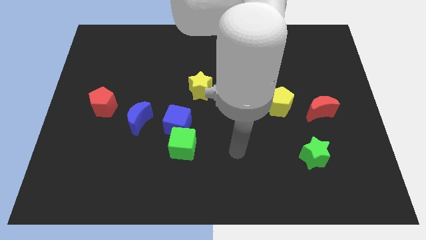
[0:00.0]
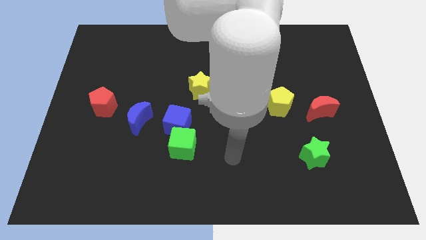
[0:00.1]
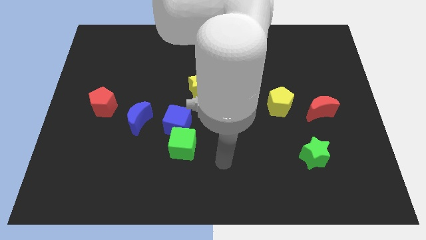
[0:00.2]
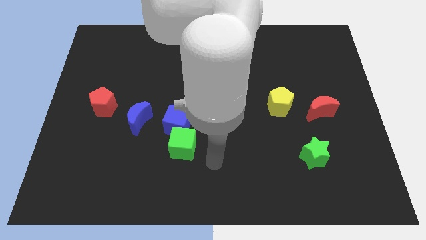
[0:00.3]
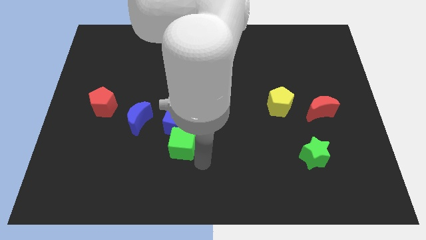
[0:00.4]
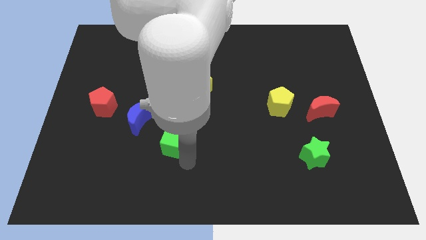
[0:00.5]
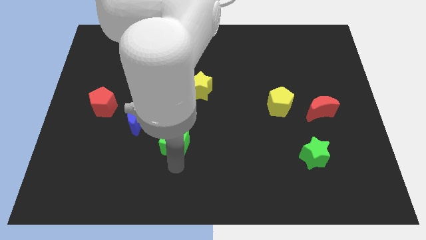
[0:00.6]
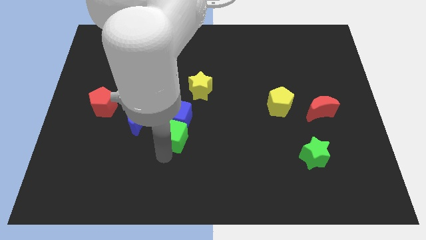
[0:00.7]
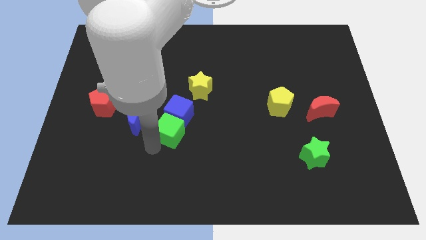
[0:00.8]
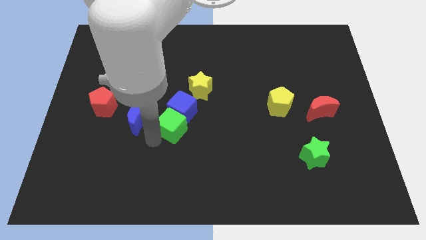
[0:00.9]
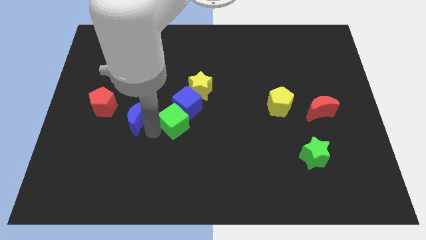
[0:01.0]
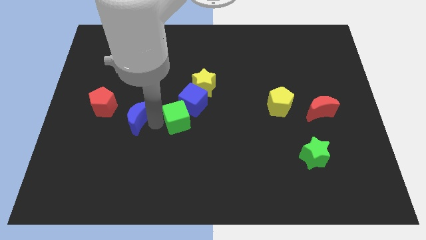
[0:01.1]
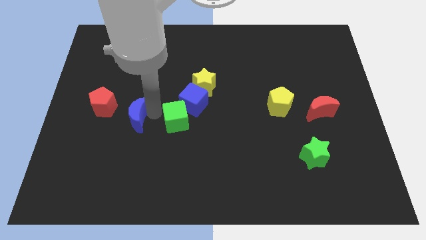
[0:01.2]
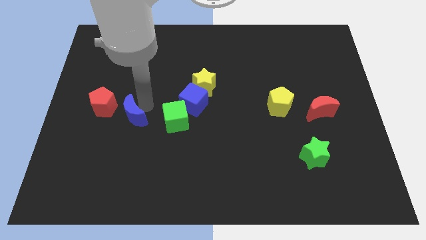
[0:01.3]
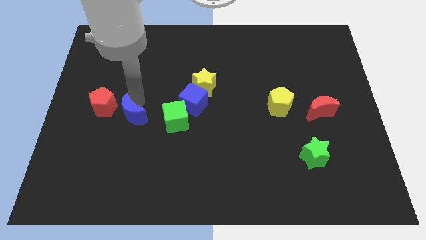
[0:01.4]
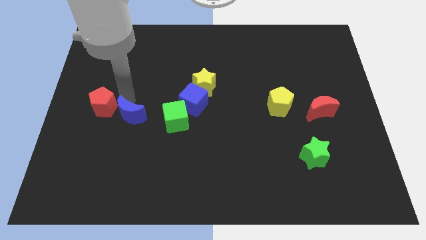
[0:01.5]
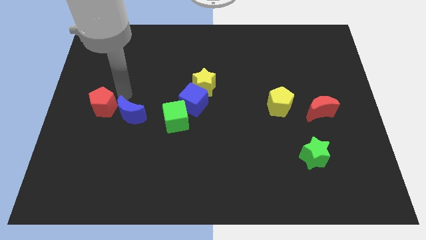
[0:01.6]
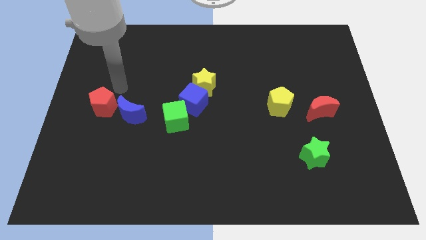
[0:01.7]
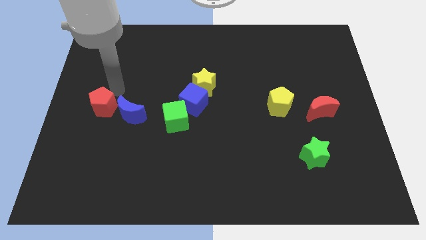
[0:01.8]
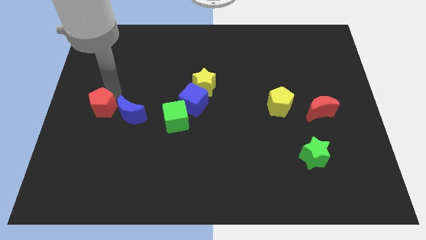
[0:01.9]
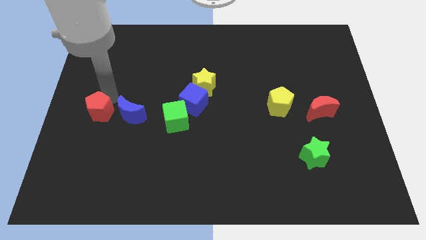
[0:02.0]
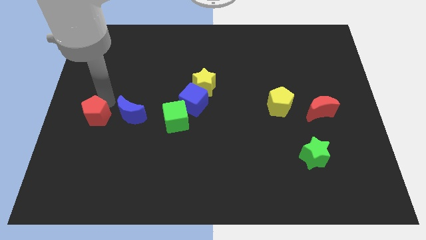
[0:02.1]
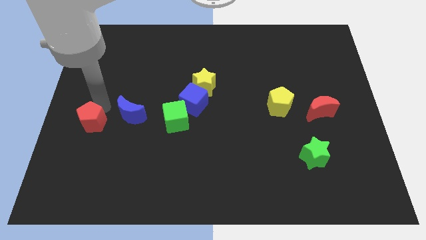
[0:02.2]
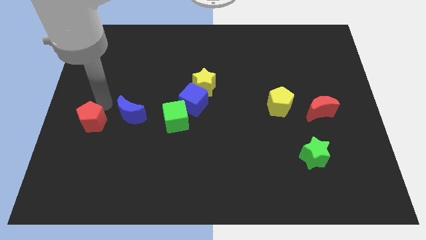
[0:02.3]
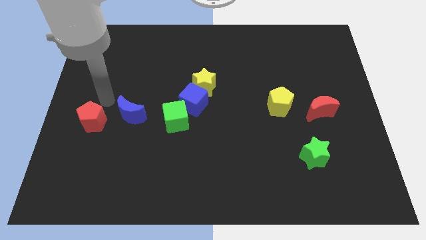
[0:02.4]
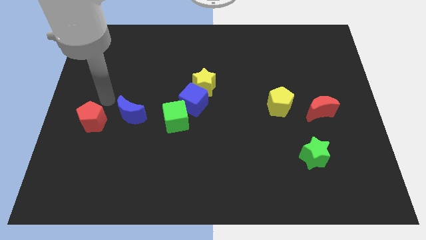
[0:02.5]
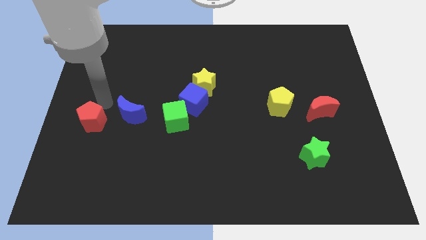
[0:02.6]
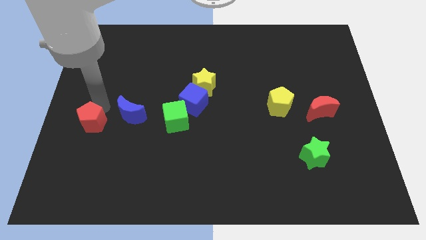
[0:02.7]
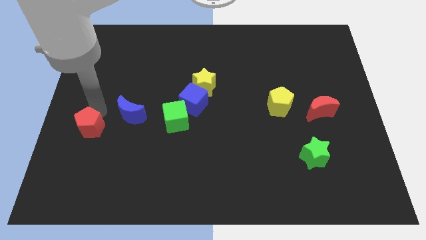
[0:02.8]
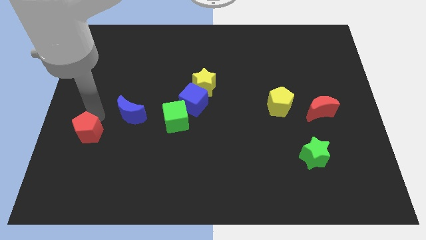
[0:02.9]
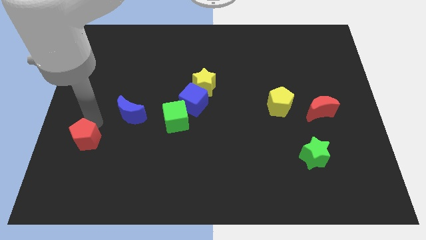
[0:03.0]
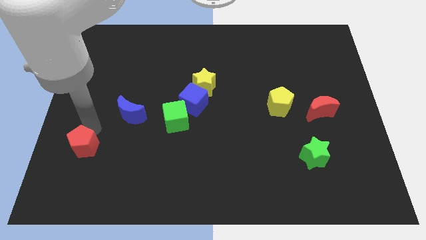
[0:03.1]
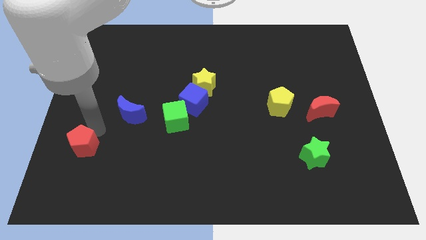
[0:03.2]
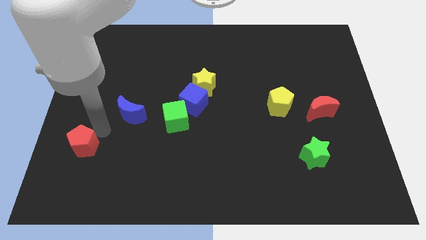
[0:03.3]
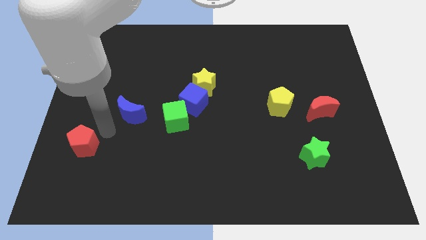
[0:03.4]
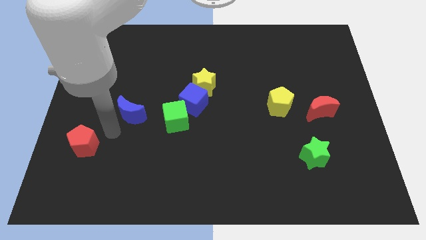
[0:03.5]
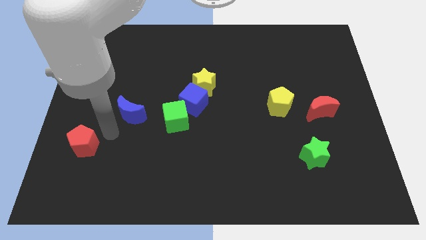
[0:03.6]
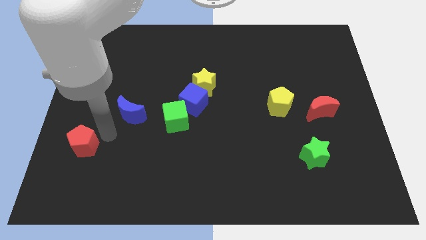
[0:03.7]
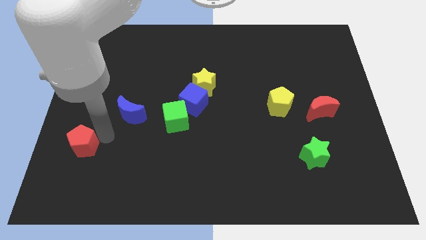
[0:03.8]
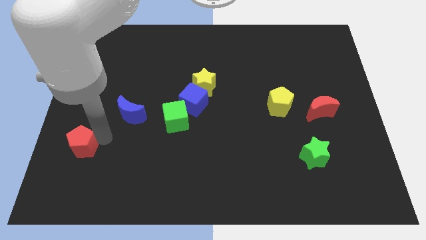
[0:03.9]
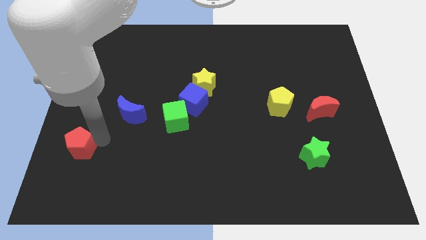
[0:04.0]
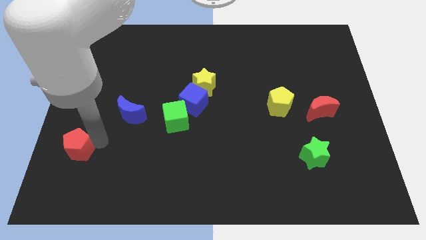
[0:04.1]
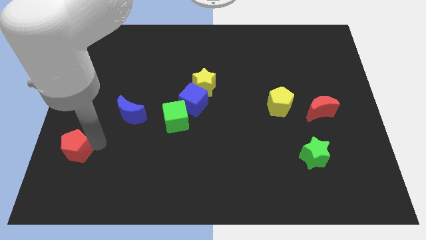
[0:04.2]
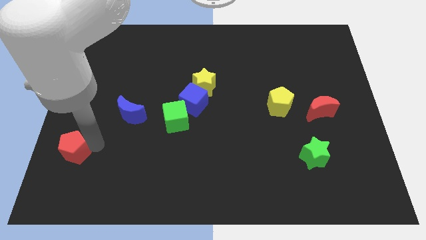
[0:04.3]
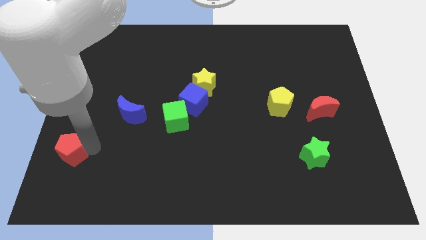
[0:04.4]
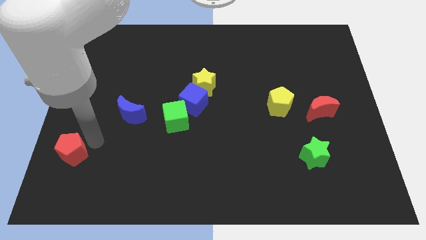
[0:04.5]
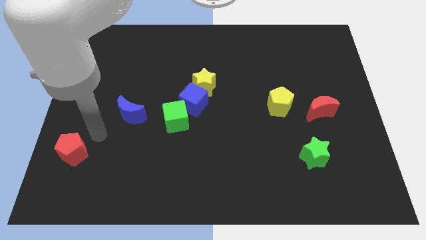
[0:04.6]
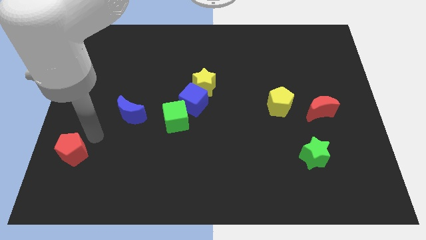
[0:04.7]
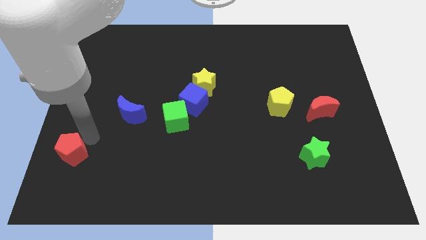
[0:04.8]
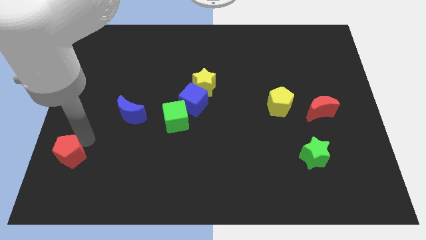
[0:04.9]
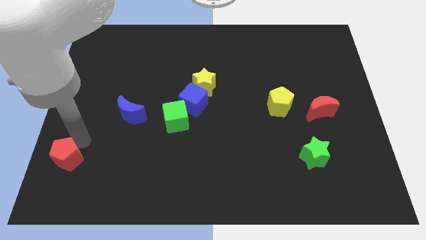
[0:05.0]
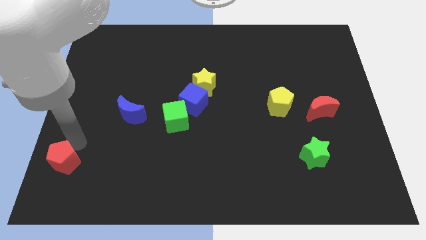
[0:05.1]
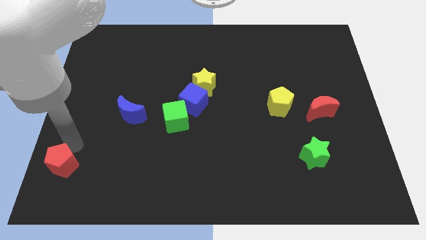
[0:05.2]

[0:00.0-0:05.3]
push the red pentagon to the lower left corner

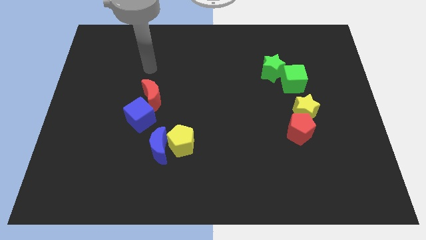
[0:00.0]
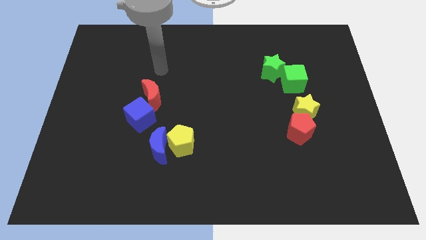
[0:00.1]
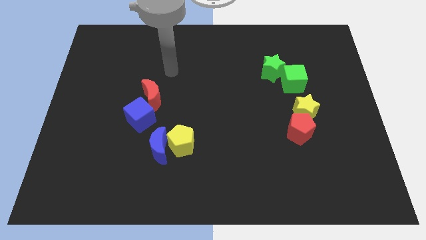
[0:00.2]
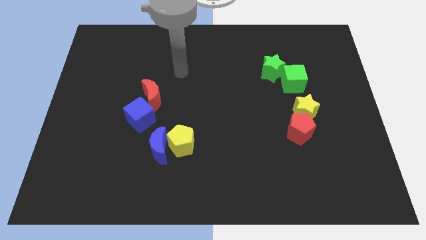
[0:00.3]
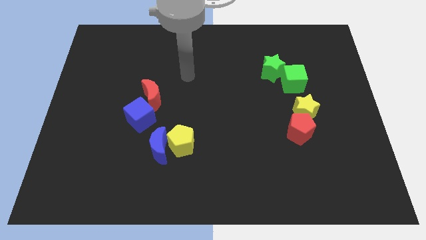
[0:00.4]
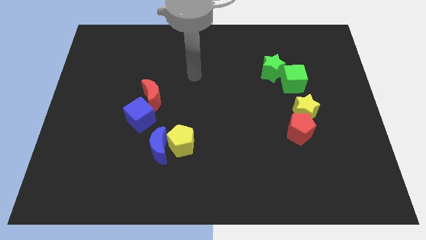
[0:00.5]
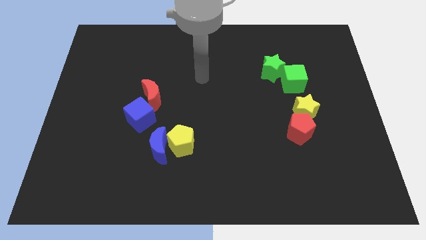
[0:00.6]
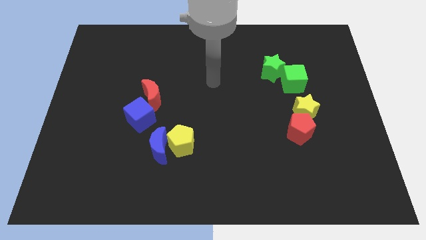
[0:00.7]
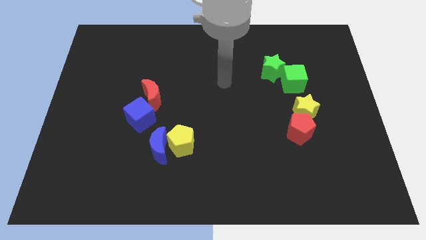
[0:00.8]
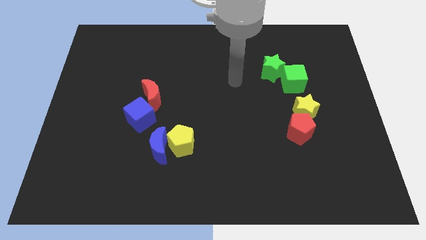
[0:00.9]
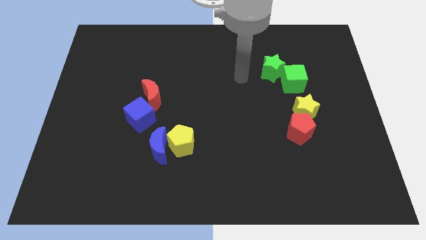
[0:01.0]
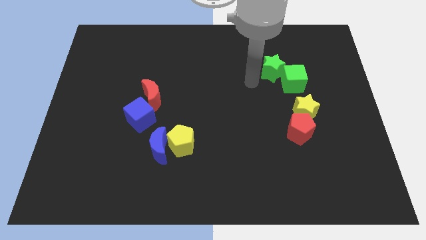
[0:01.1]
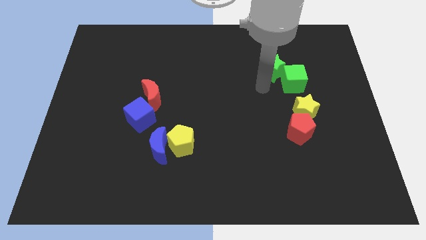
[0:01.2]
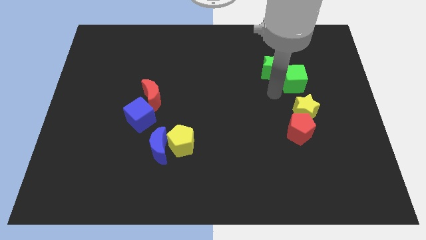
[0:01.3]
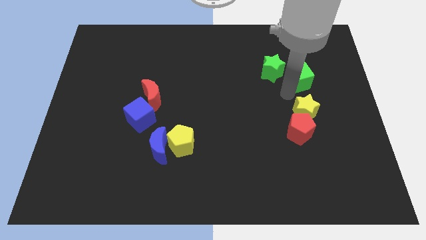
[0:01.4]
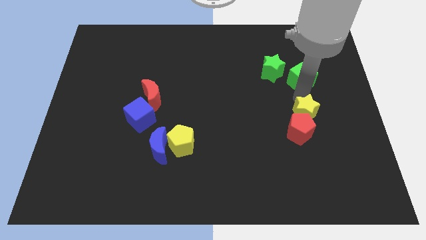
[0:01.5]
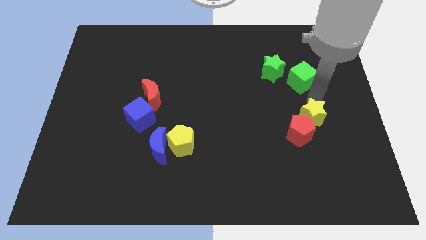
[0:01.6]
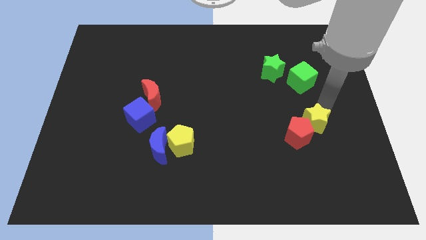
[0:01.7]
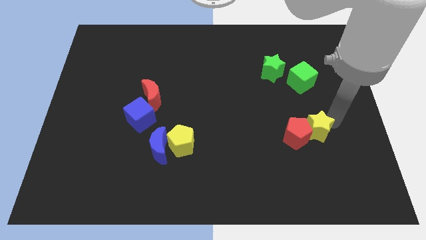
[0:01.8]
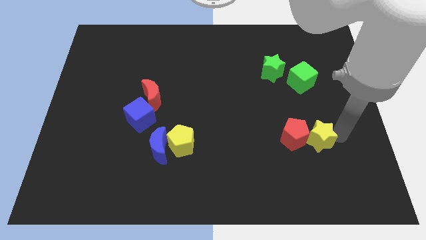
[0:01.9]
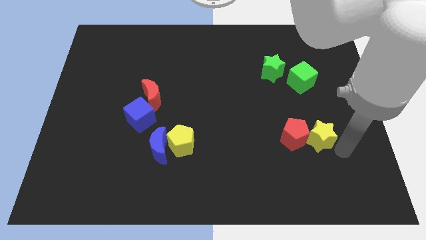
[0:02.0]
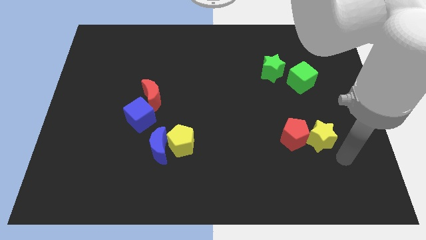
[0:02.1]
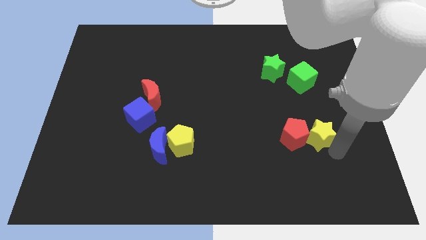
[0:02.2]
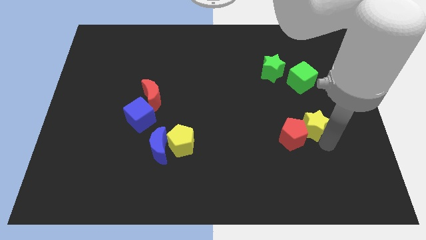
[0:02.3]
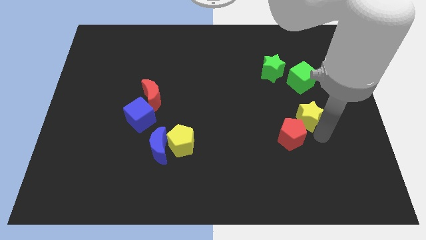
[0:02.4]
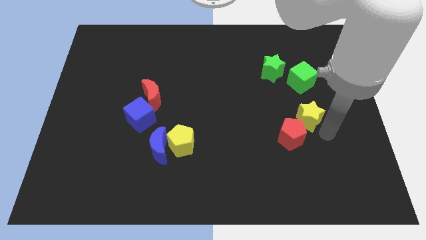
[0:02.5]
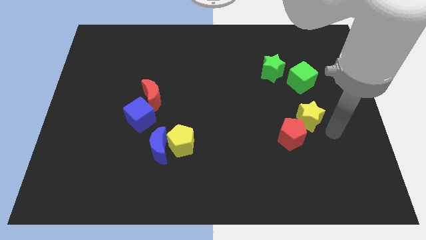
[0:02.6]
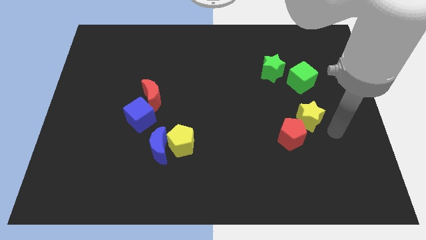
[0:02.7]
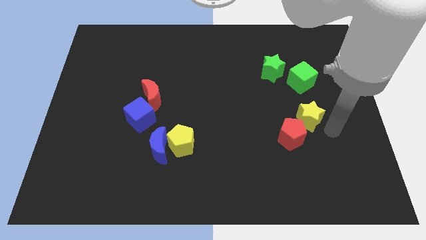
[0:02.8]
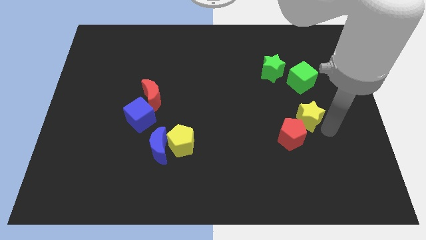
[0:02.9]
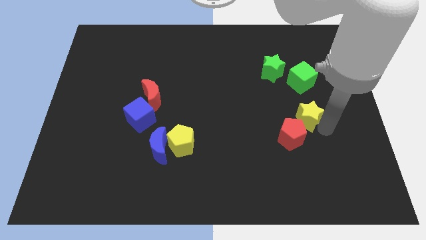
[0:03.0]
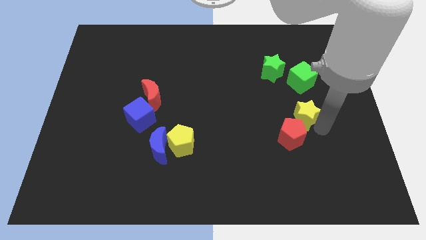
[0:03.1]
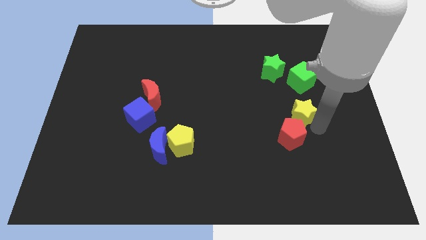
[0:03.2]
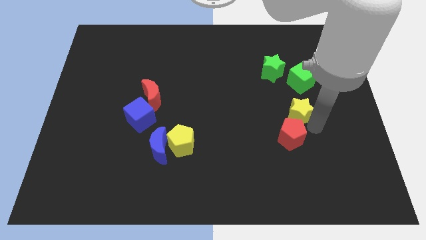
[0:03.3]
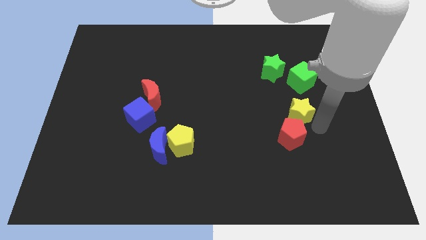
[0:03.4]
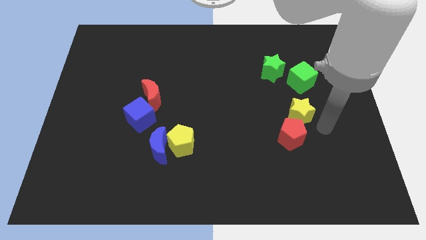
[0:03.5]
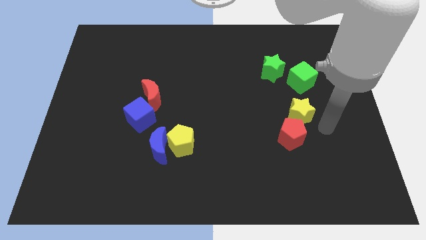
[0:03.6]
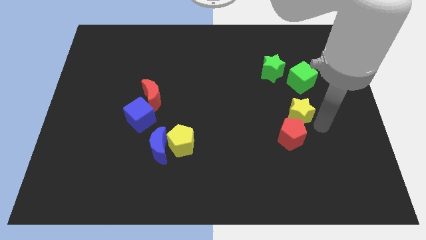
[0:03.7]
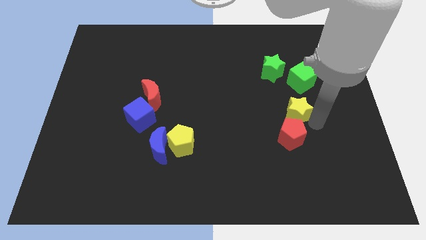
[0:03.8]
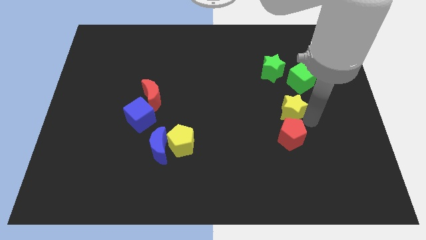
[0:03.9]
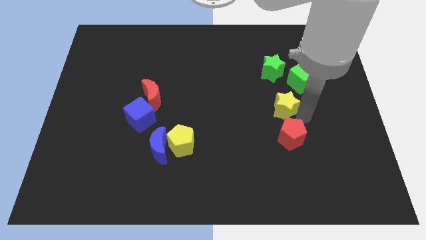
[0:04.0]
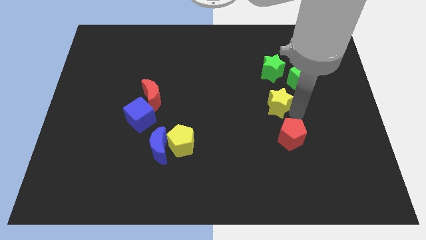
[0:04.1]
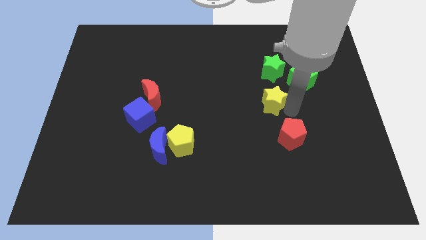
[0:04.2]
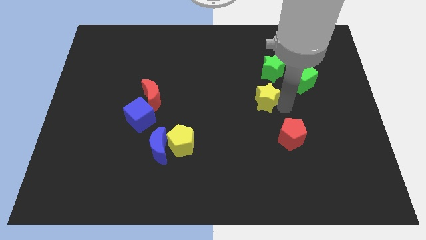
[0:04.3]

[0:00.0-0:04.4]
put the yellow star to the middle
